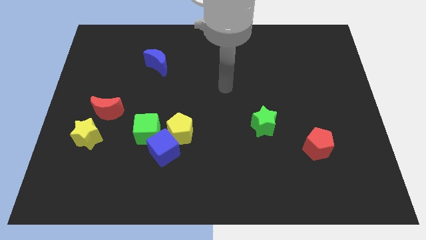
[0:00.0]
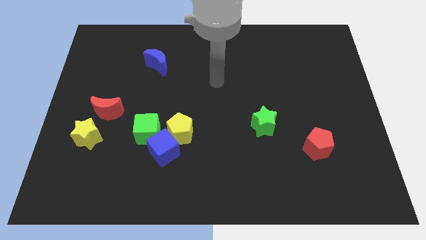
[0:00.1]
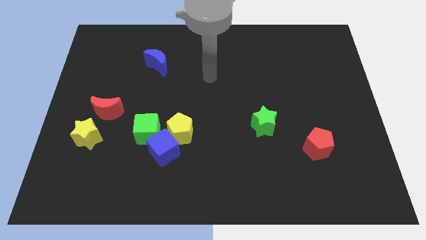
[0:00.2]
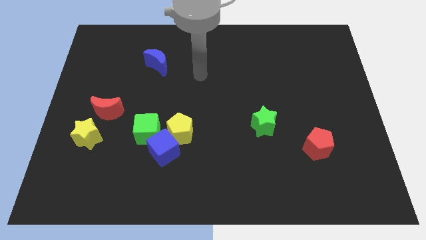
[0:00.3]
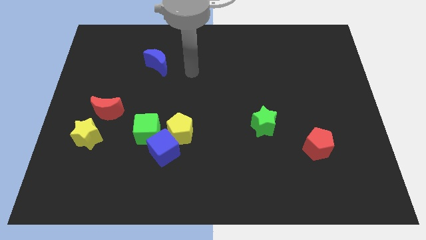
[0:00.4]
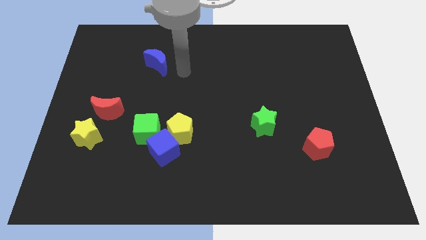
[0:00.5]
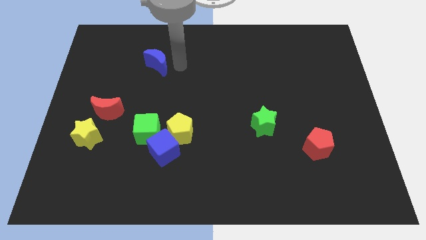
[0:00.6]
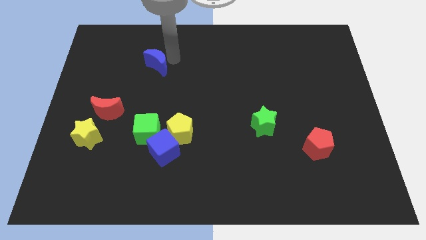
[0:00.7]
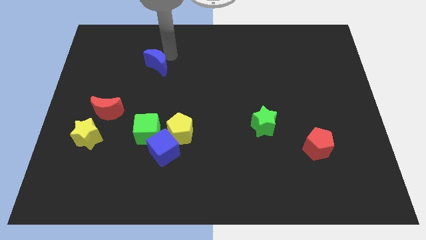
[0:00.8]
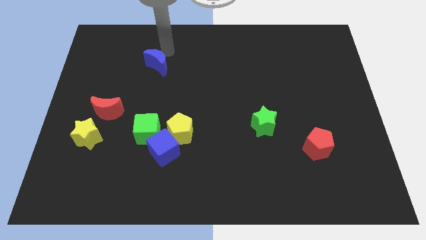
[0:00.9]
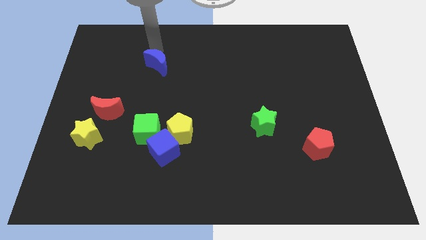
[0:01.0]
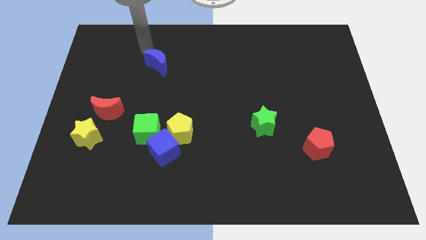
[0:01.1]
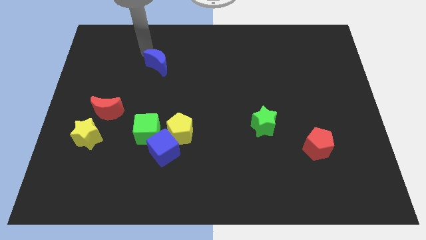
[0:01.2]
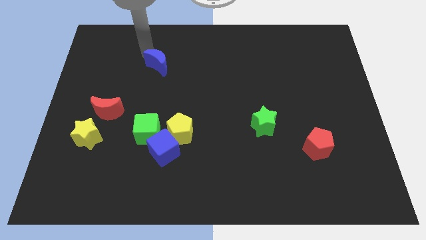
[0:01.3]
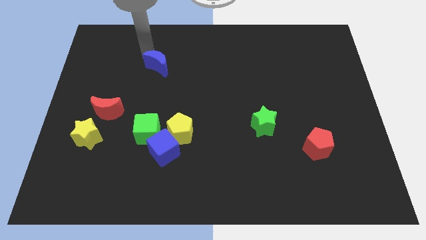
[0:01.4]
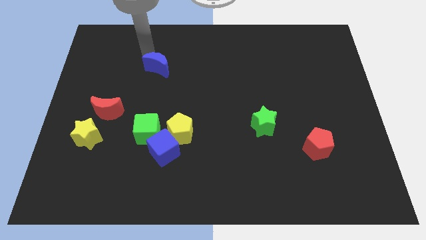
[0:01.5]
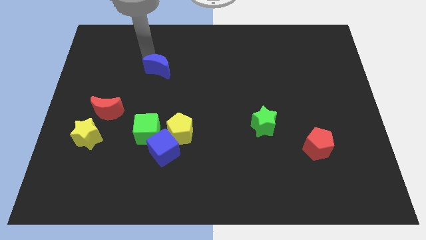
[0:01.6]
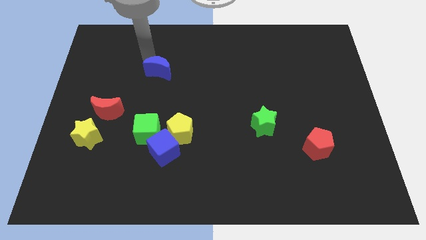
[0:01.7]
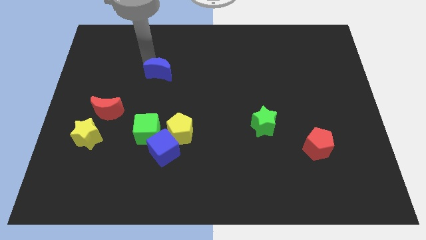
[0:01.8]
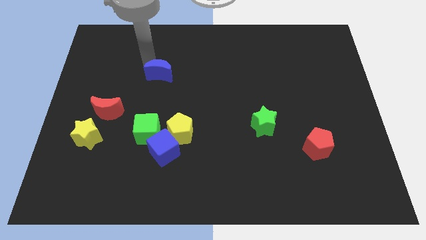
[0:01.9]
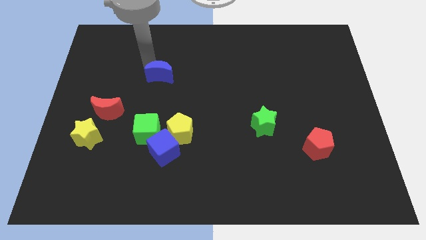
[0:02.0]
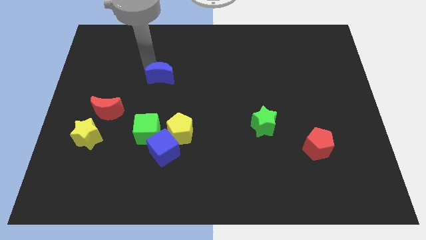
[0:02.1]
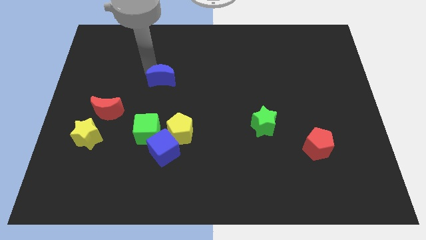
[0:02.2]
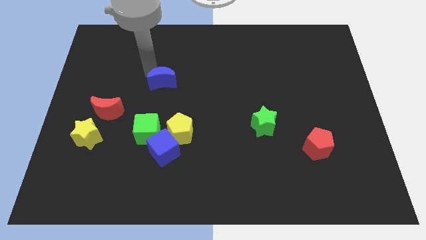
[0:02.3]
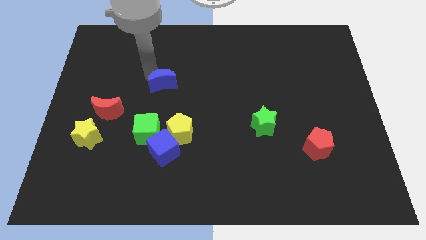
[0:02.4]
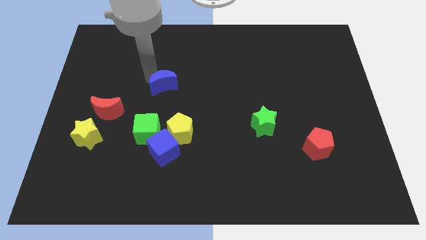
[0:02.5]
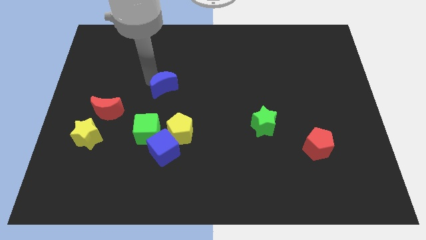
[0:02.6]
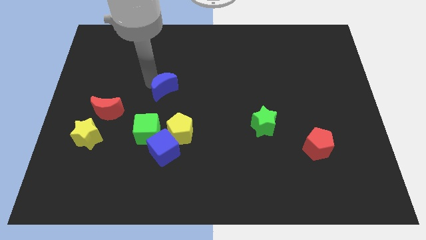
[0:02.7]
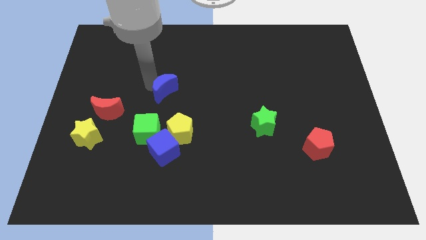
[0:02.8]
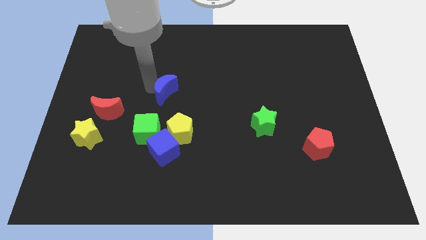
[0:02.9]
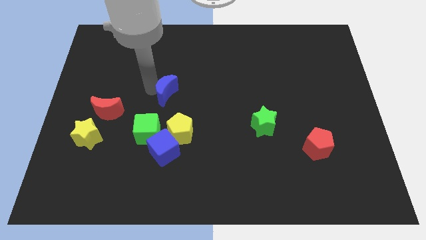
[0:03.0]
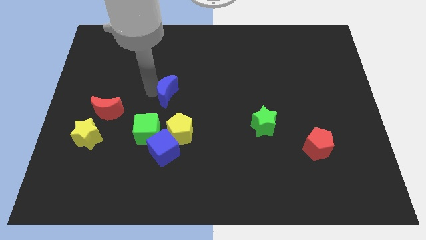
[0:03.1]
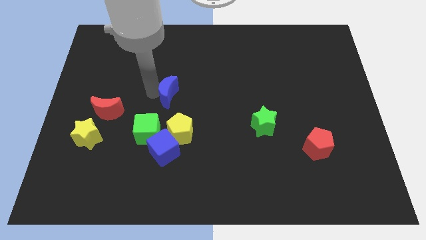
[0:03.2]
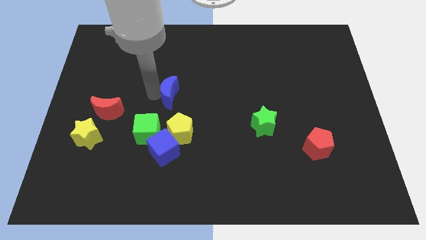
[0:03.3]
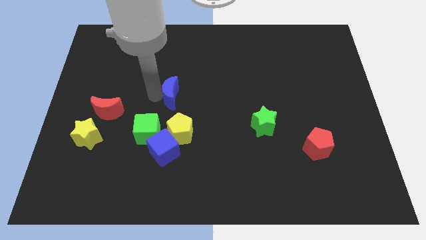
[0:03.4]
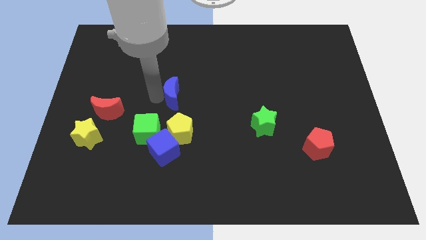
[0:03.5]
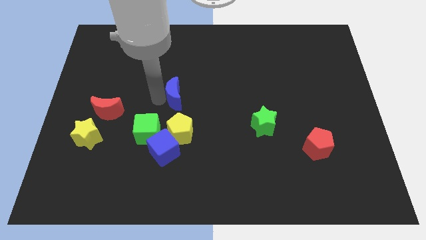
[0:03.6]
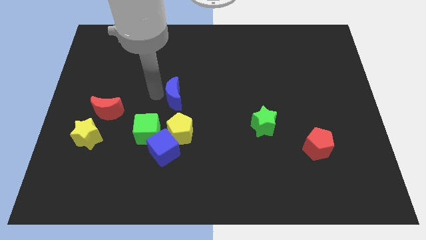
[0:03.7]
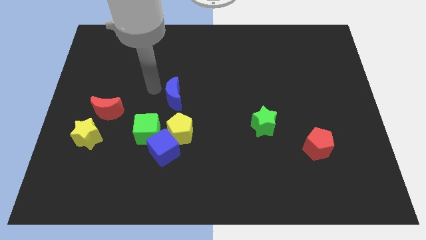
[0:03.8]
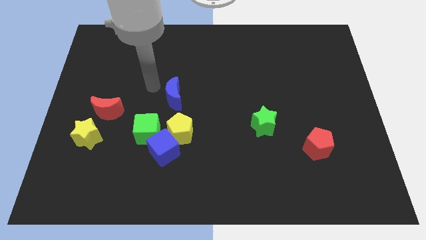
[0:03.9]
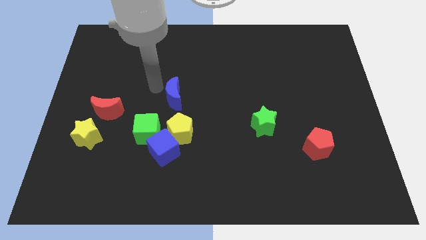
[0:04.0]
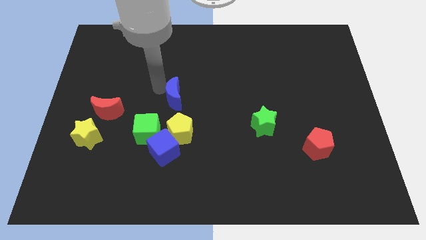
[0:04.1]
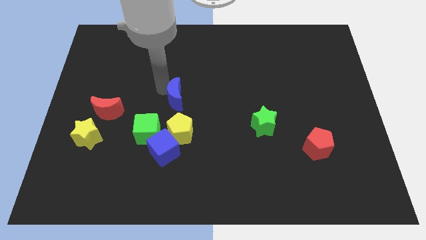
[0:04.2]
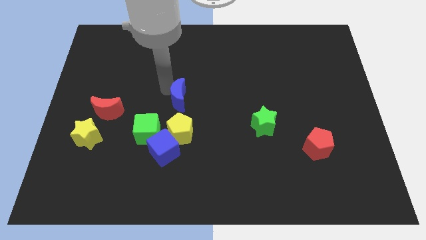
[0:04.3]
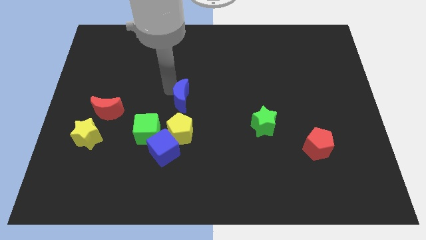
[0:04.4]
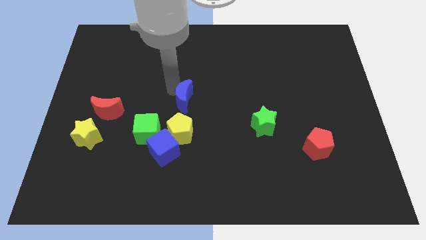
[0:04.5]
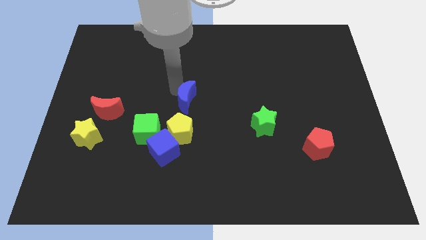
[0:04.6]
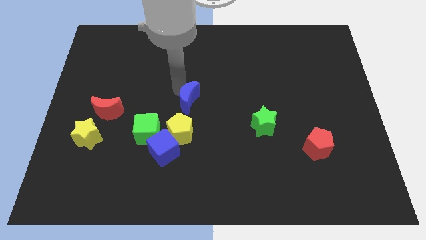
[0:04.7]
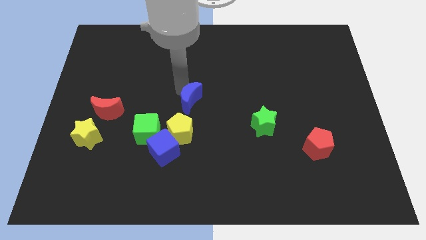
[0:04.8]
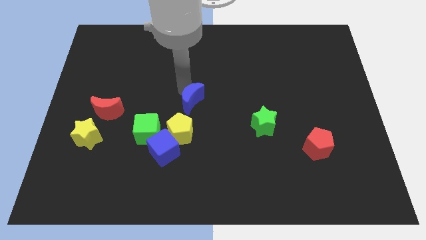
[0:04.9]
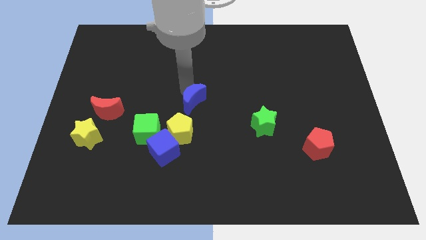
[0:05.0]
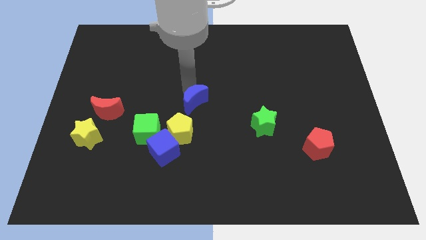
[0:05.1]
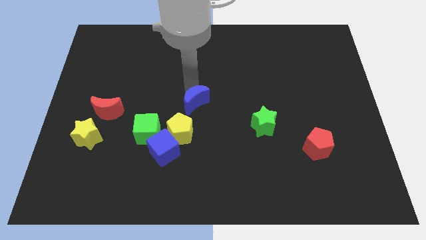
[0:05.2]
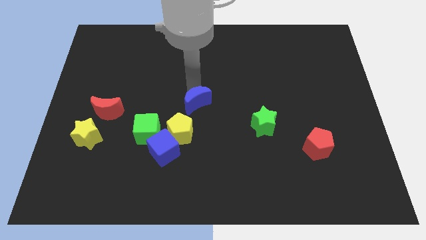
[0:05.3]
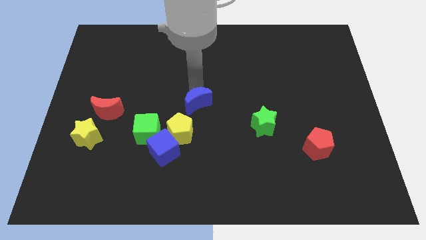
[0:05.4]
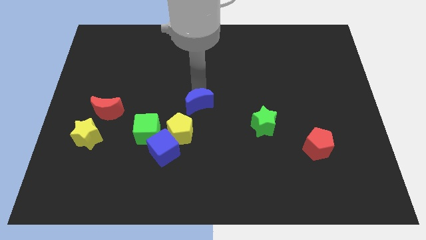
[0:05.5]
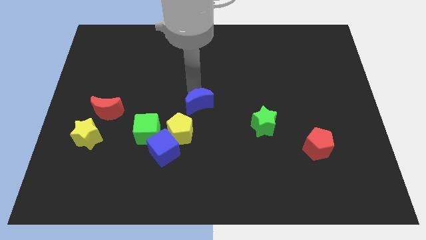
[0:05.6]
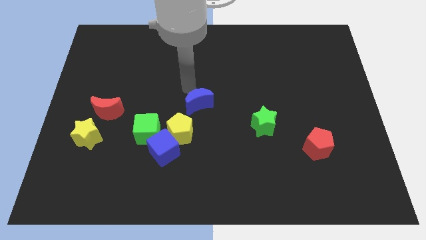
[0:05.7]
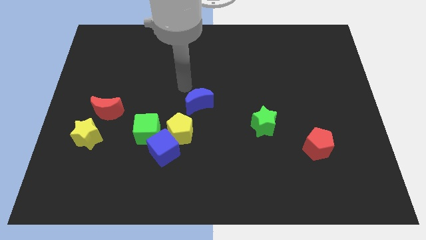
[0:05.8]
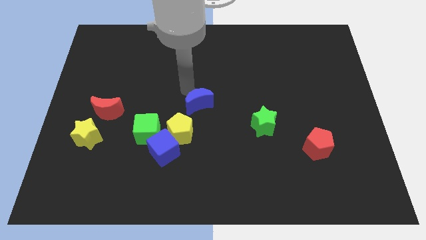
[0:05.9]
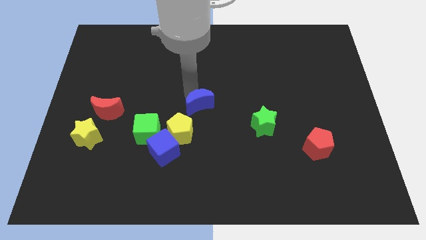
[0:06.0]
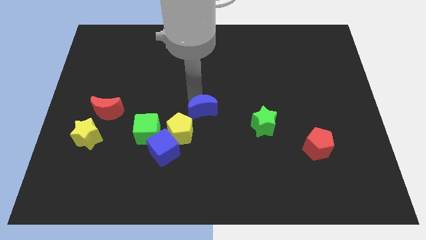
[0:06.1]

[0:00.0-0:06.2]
move the blue moon just left of the green star

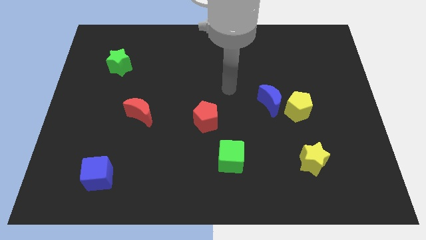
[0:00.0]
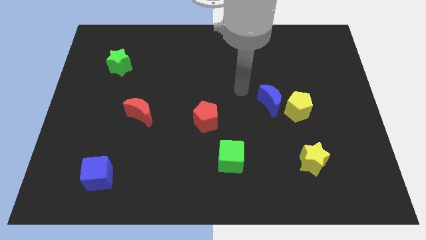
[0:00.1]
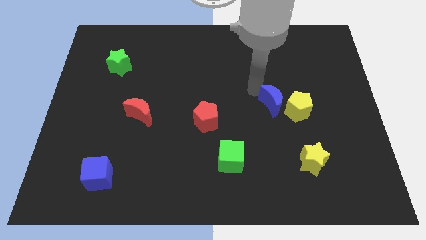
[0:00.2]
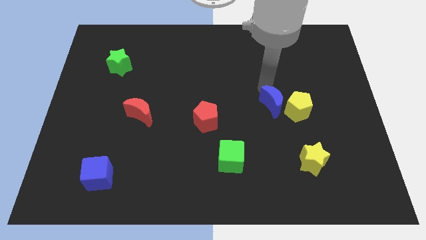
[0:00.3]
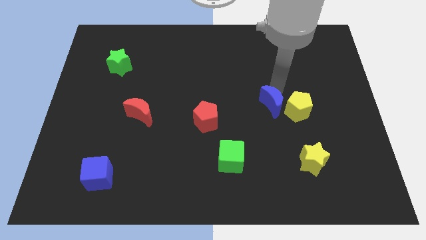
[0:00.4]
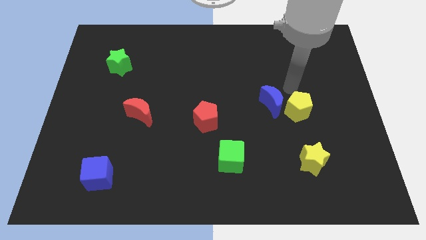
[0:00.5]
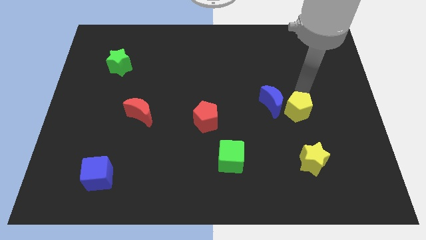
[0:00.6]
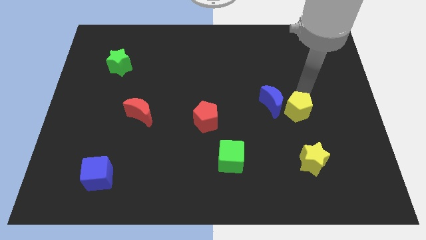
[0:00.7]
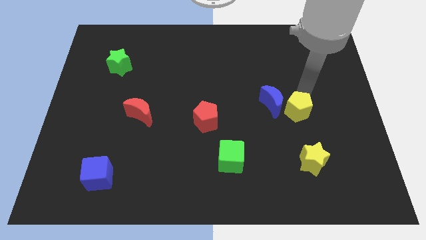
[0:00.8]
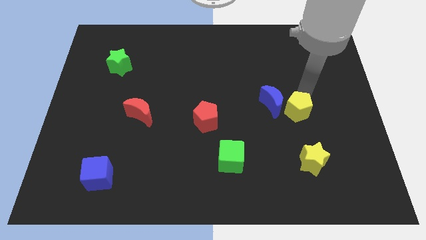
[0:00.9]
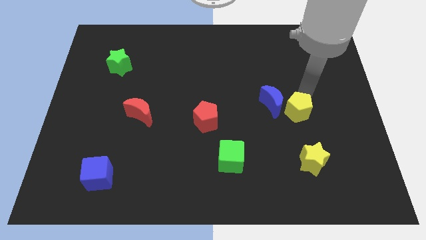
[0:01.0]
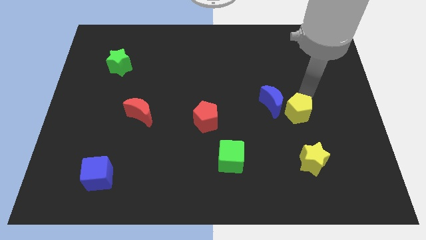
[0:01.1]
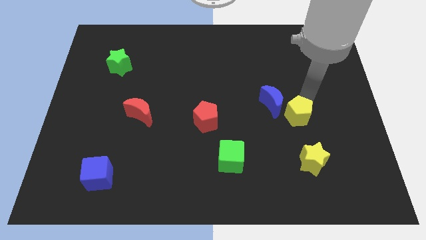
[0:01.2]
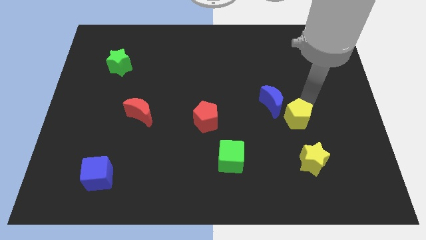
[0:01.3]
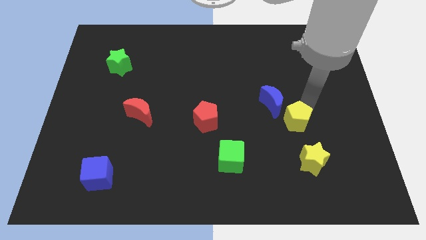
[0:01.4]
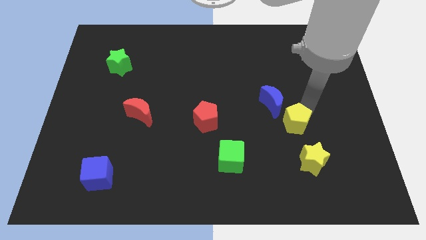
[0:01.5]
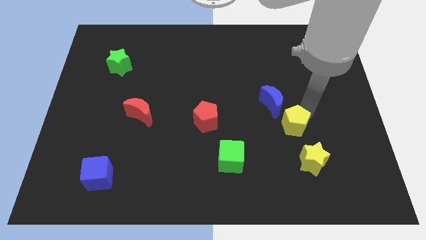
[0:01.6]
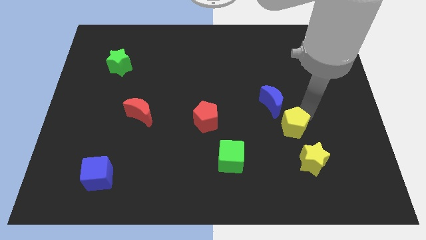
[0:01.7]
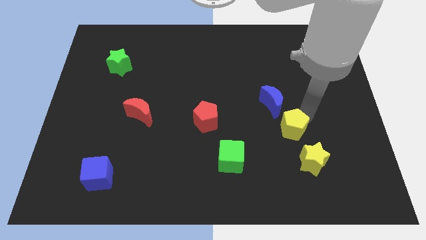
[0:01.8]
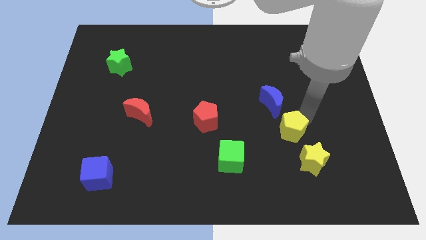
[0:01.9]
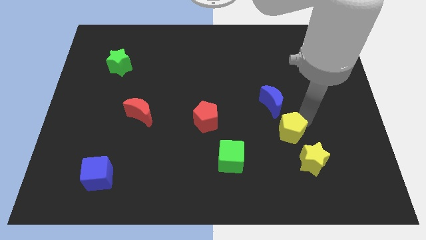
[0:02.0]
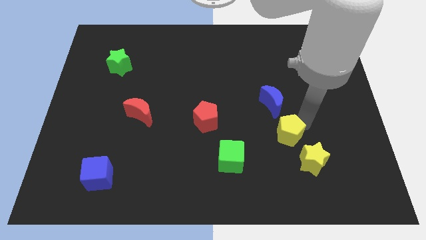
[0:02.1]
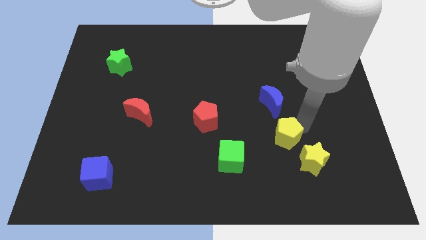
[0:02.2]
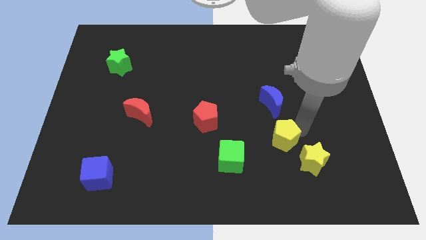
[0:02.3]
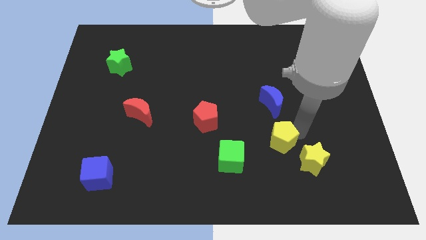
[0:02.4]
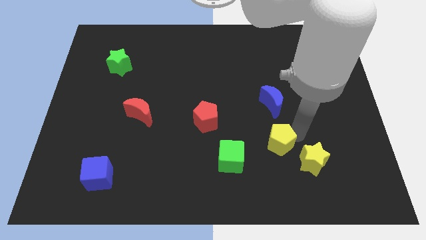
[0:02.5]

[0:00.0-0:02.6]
slide the yellow pentagon just left of the yellow star
